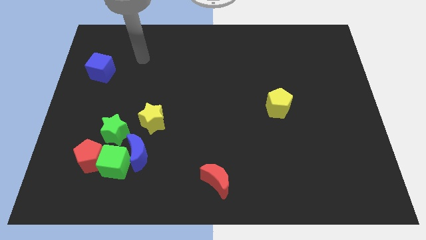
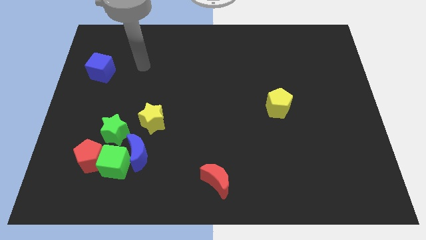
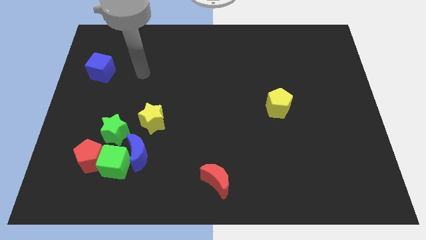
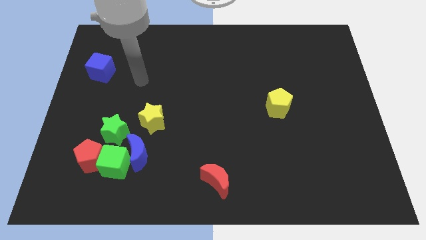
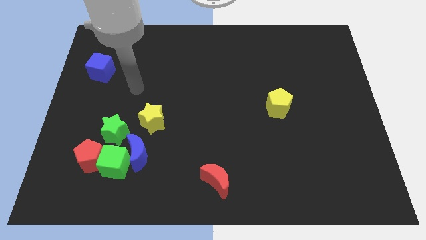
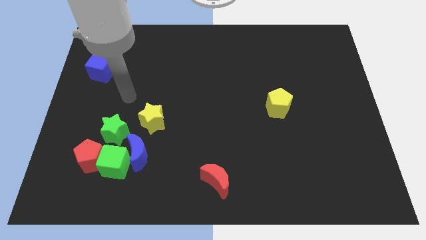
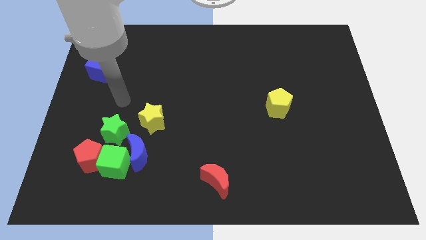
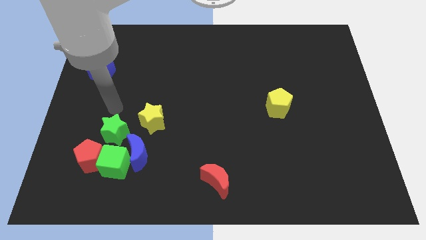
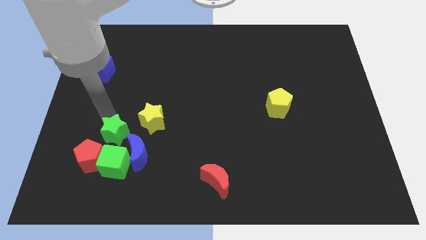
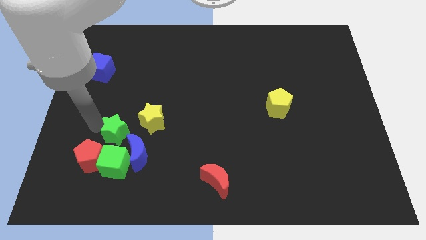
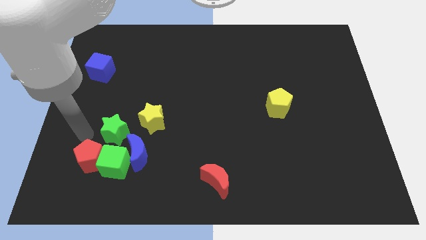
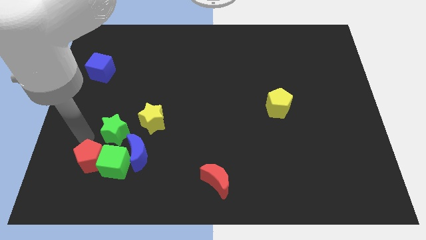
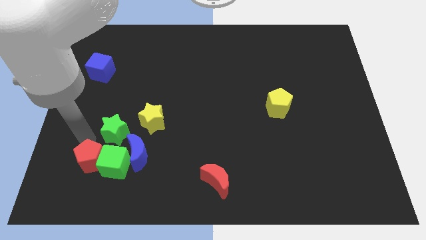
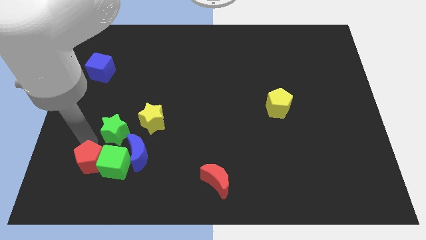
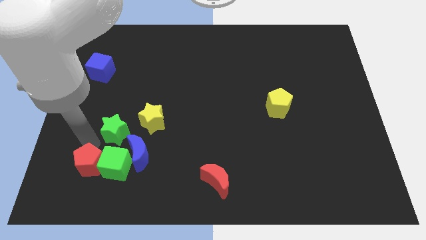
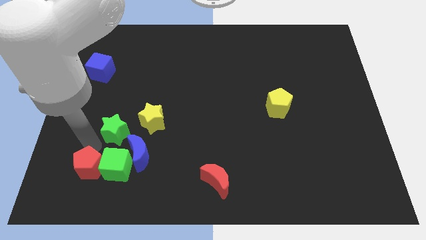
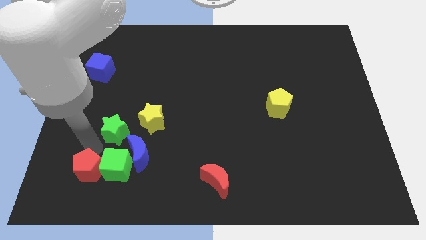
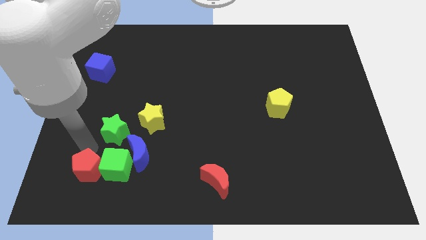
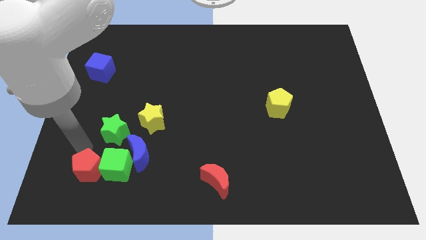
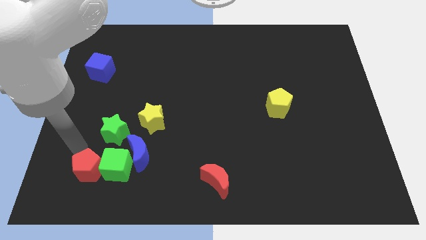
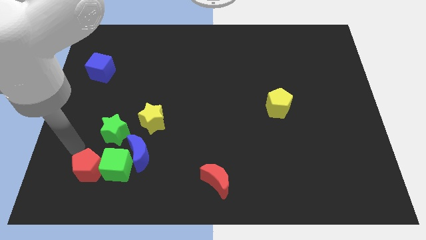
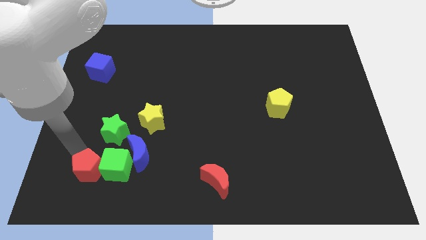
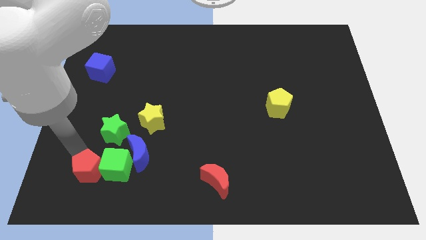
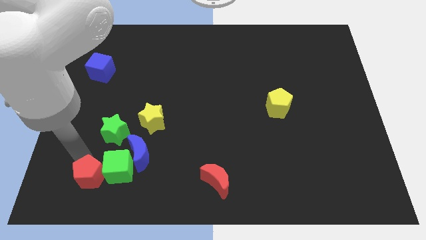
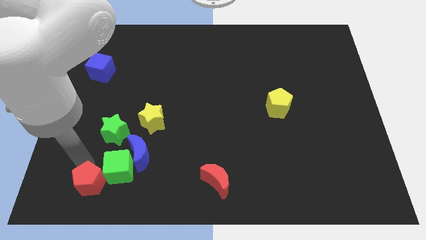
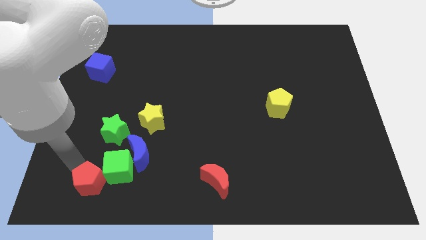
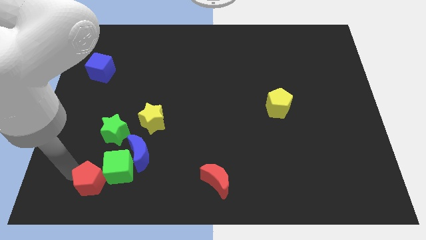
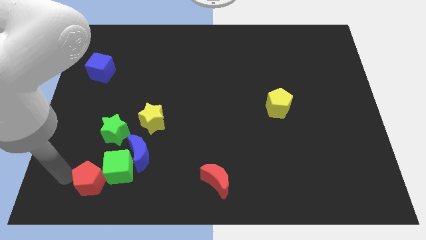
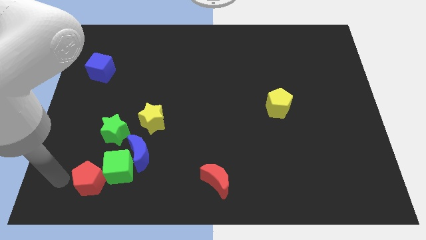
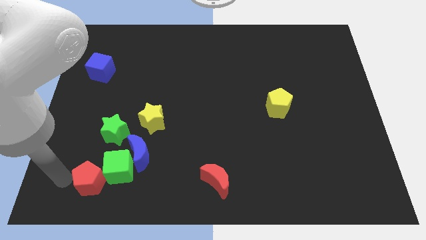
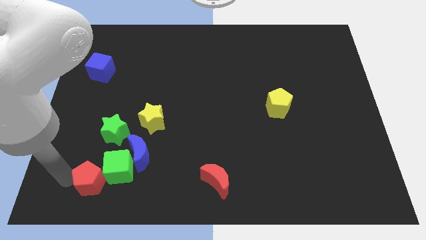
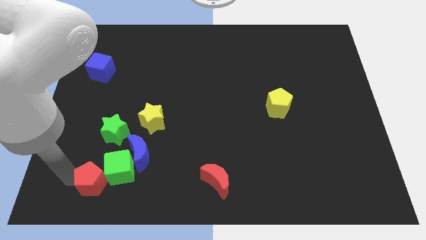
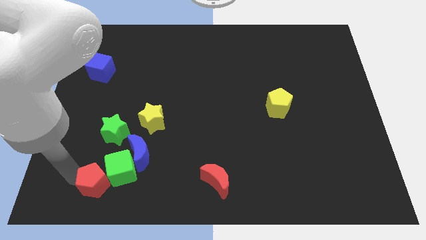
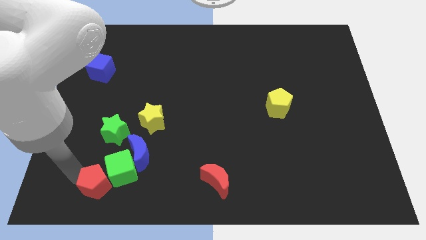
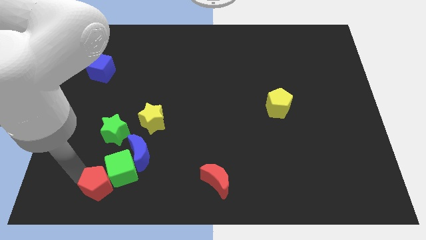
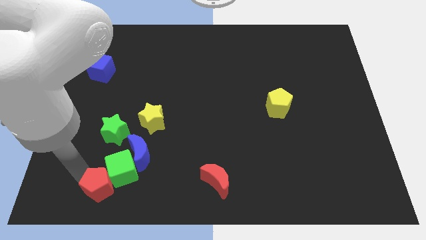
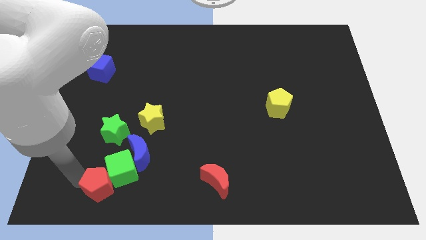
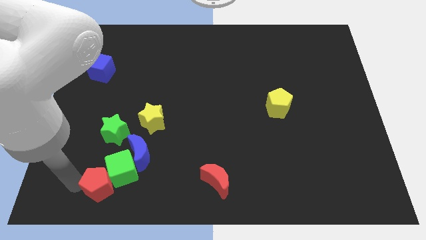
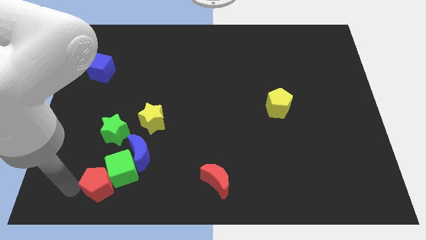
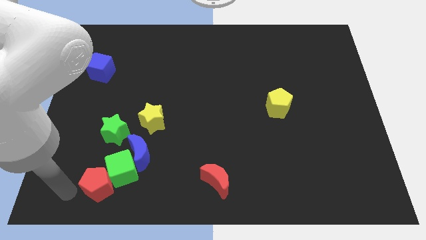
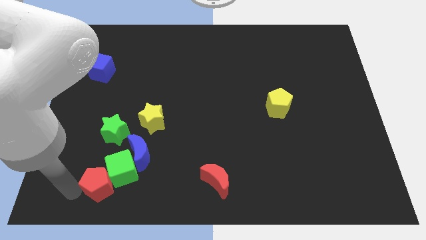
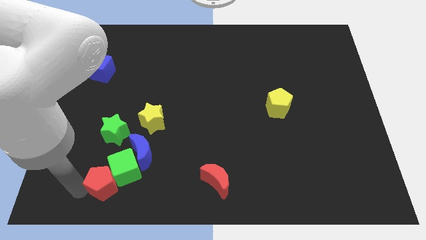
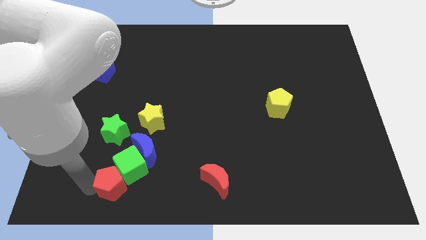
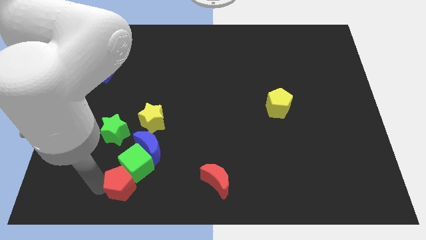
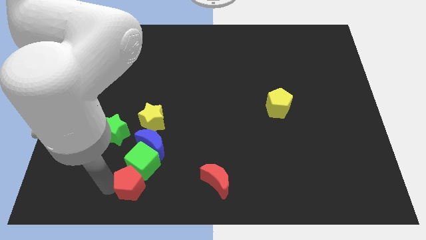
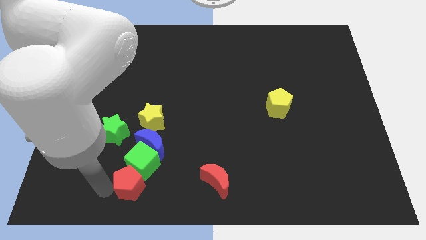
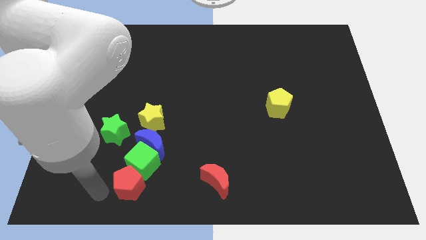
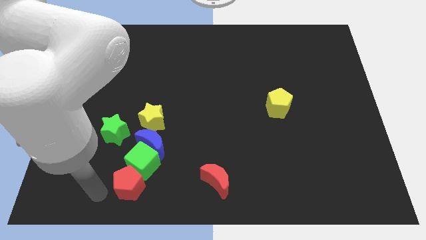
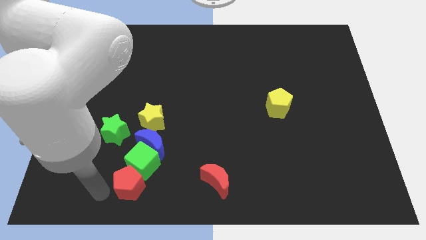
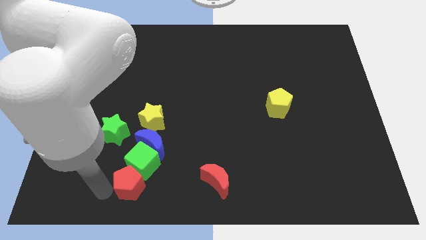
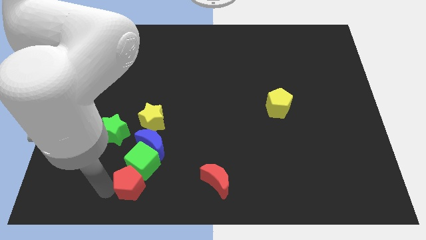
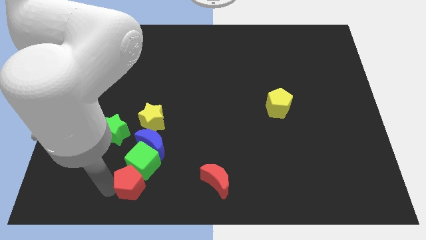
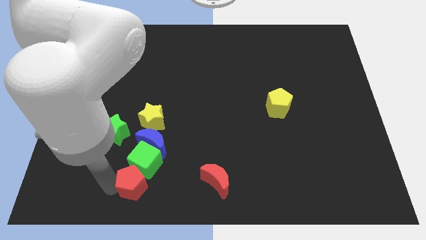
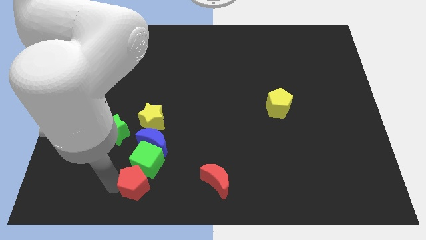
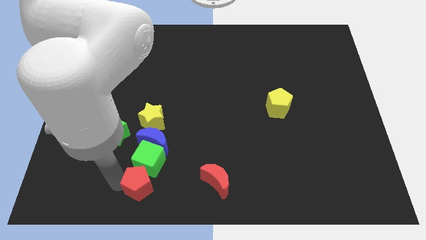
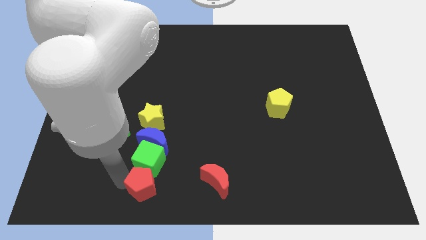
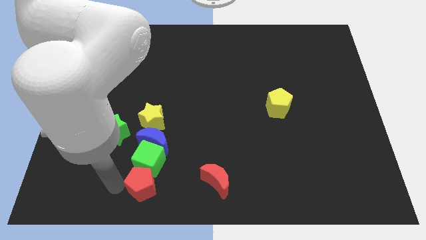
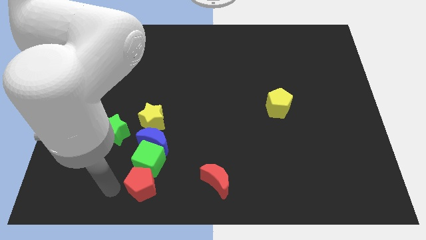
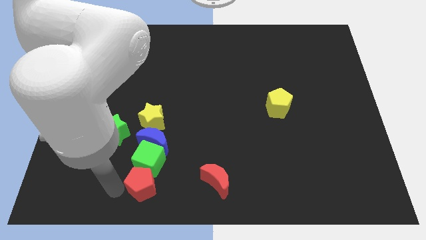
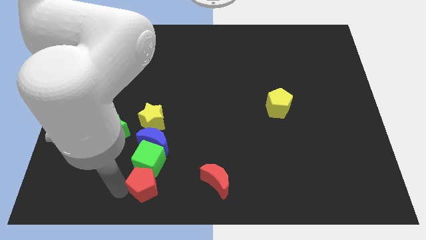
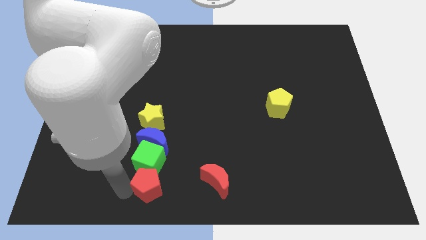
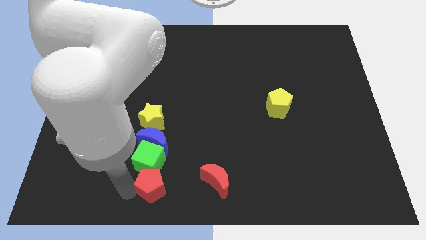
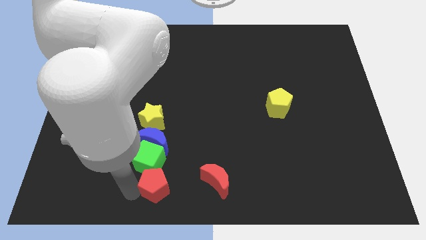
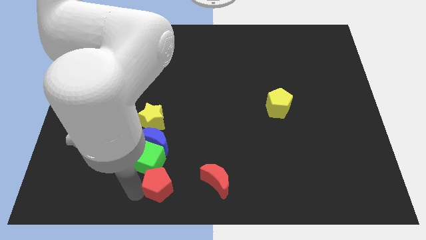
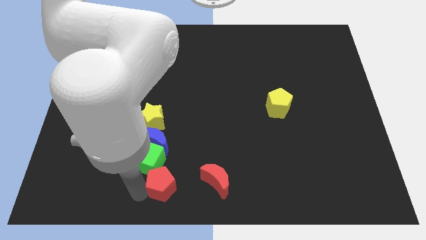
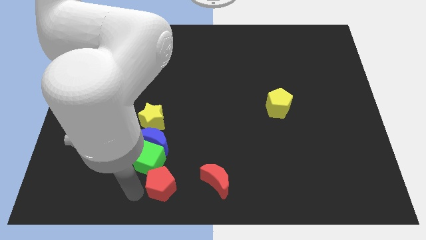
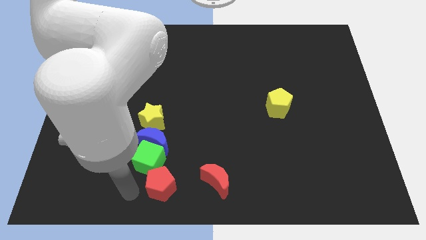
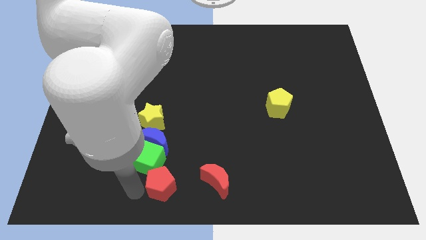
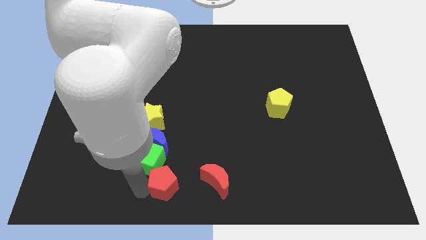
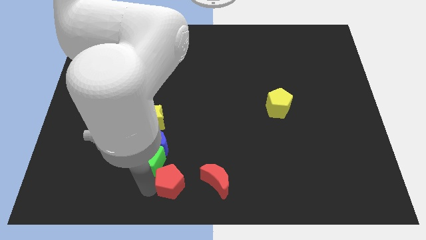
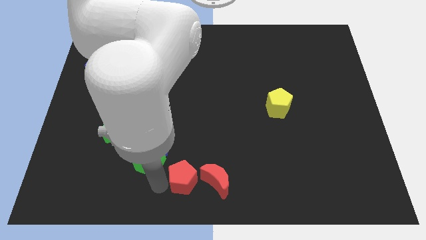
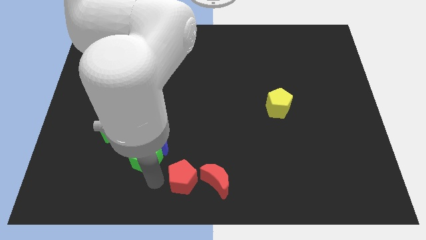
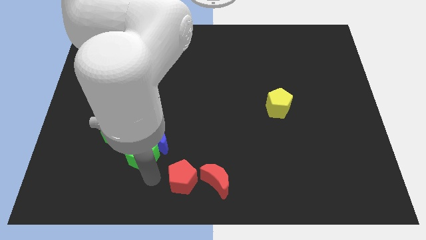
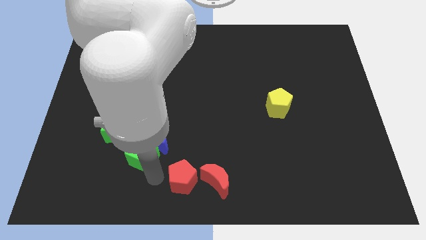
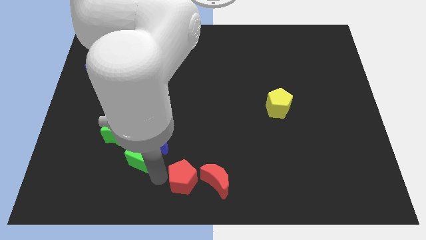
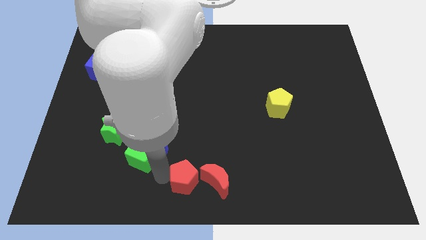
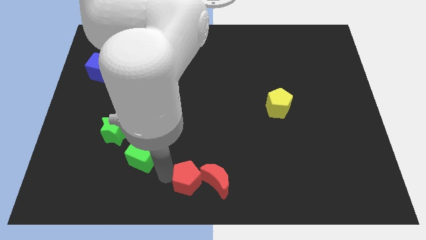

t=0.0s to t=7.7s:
move the red pentagon towards the red moon

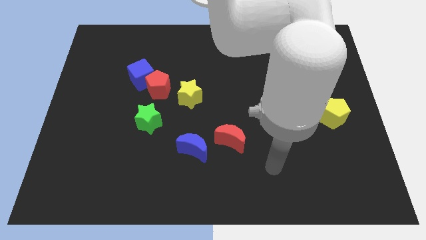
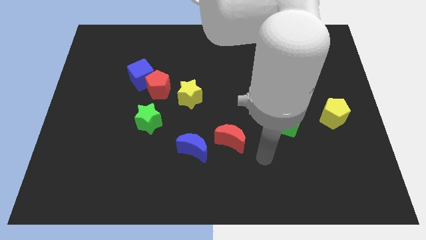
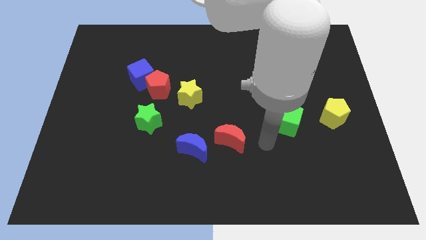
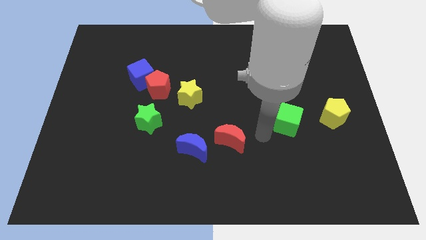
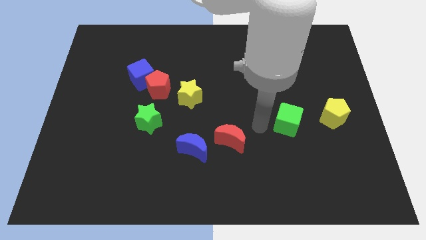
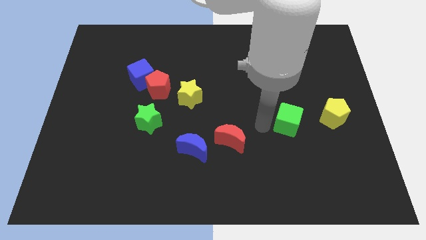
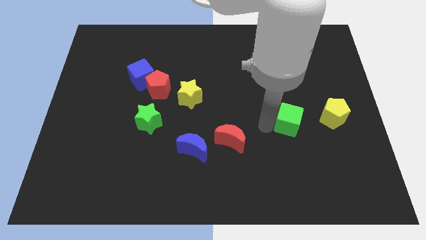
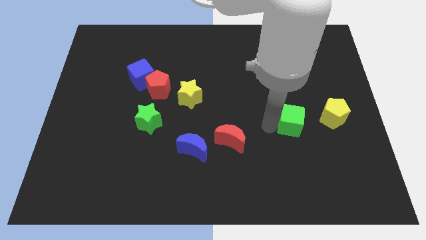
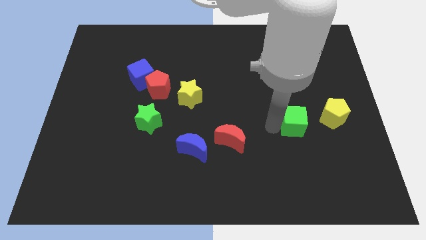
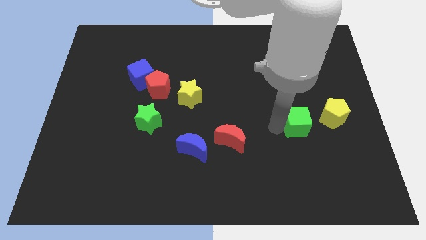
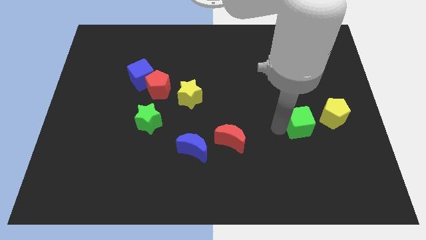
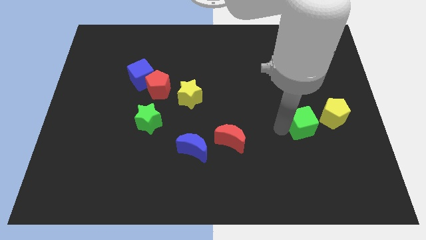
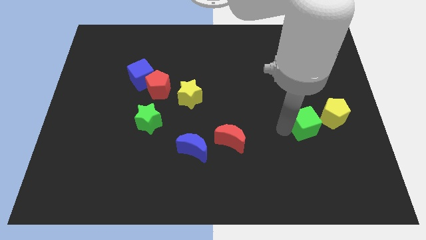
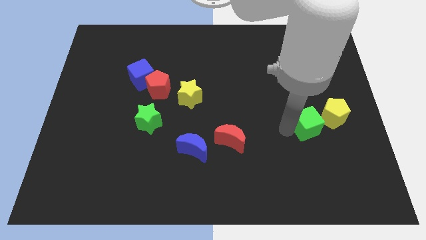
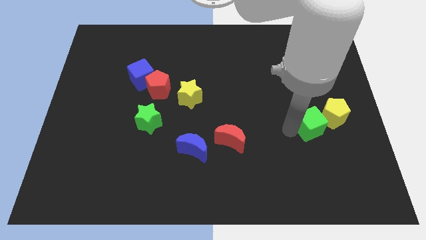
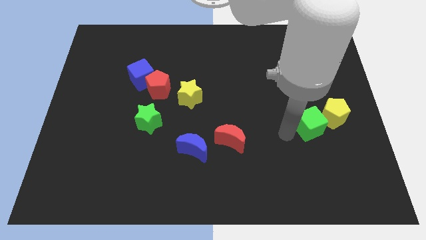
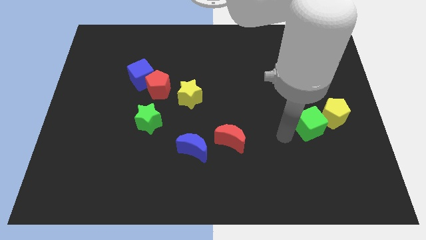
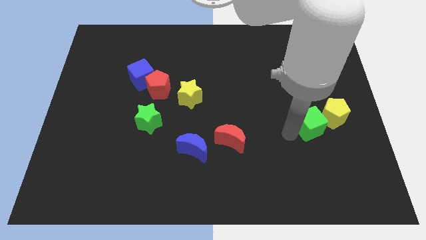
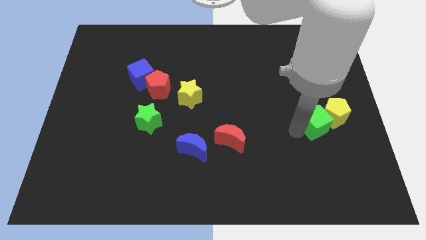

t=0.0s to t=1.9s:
move the green cube to the yellow pentagon
